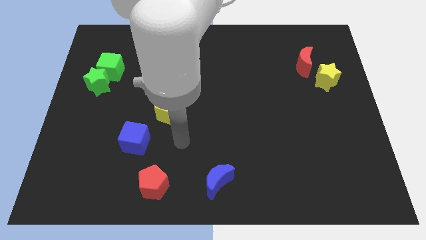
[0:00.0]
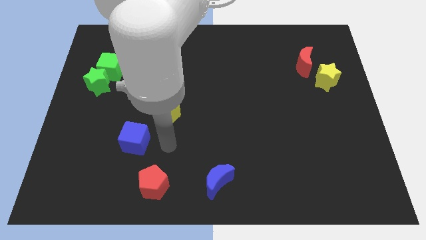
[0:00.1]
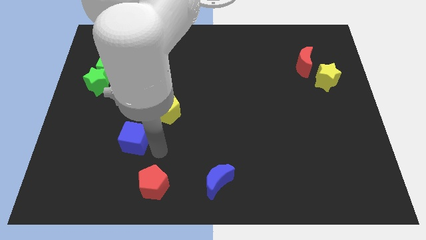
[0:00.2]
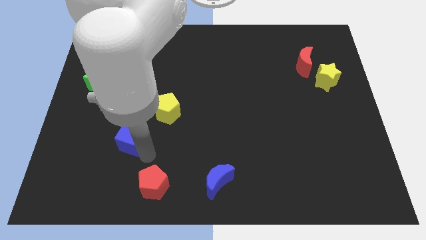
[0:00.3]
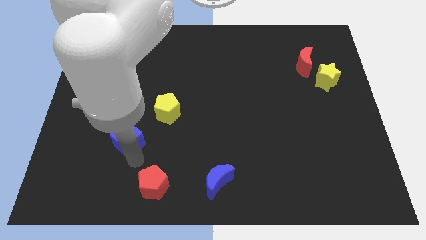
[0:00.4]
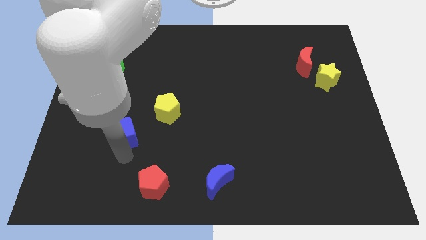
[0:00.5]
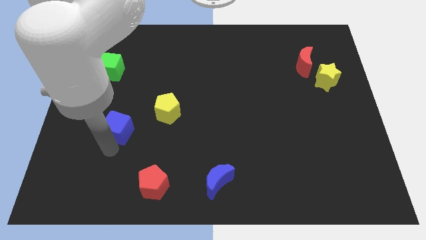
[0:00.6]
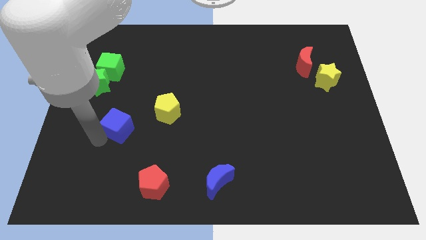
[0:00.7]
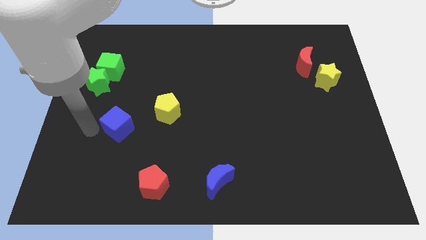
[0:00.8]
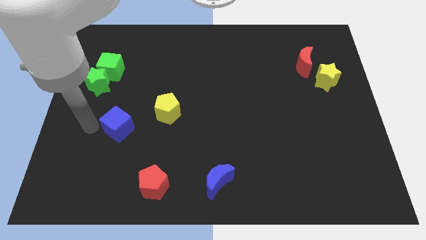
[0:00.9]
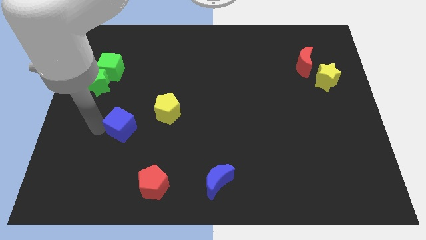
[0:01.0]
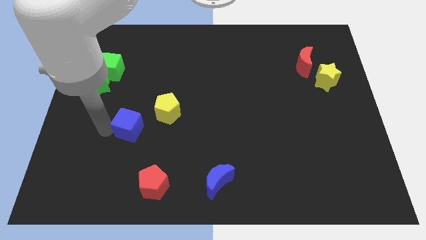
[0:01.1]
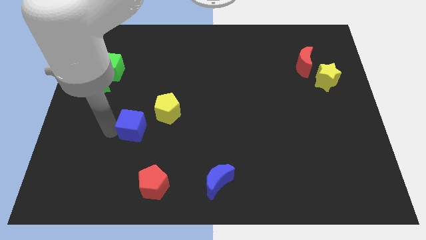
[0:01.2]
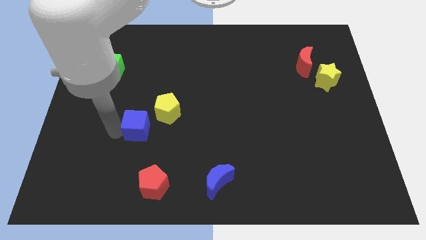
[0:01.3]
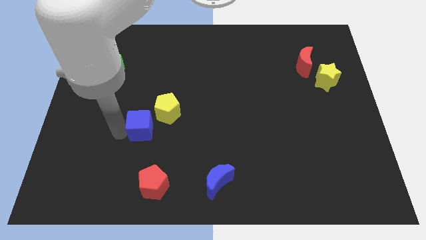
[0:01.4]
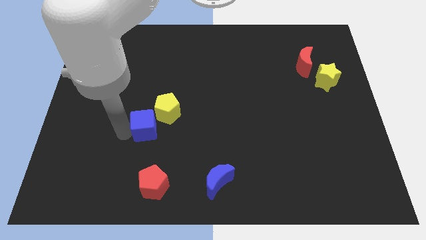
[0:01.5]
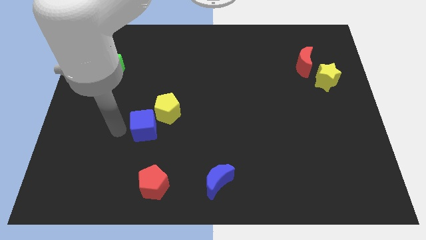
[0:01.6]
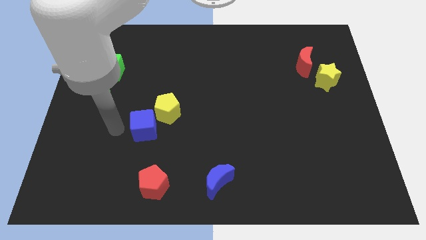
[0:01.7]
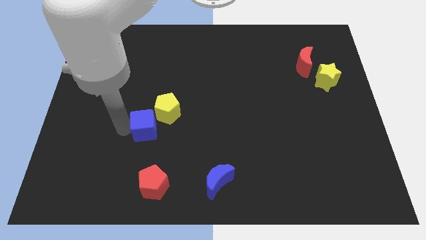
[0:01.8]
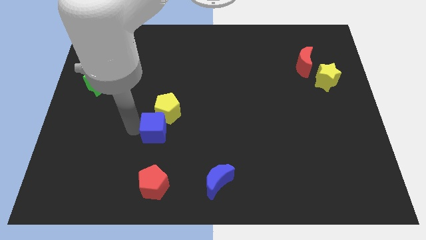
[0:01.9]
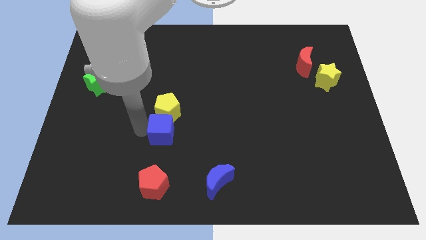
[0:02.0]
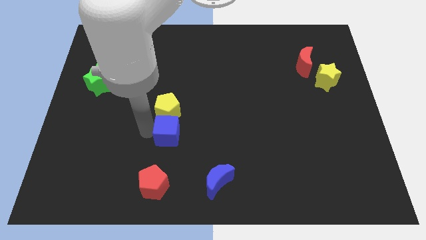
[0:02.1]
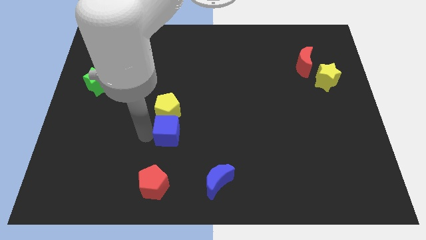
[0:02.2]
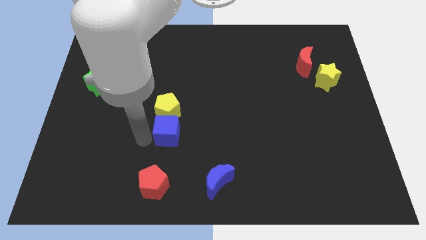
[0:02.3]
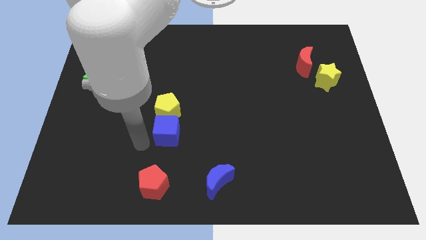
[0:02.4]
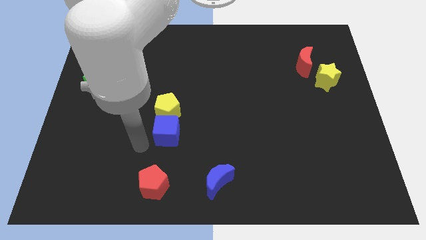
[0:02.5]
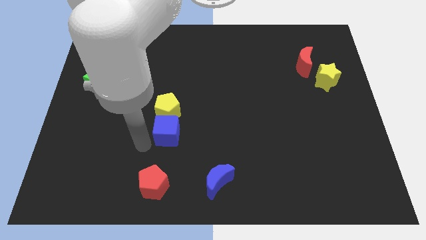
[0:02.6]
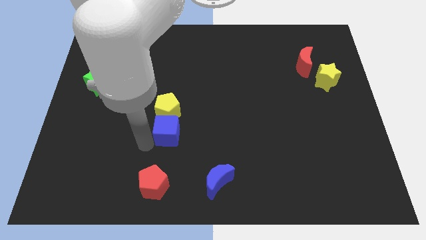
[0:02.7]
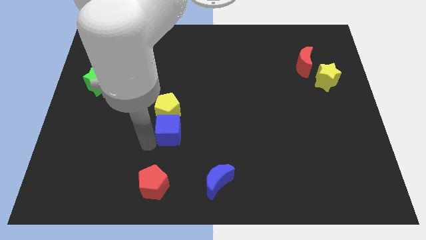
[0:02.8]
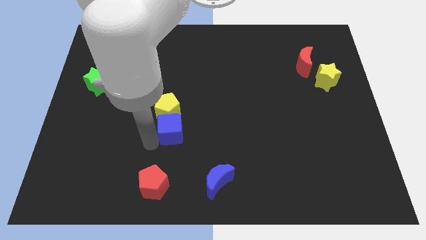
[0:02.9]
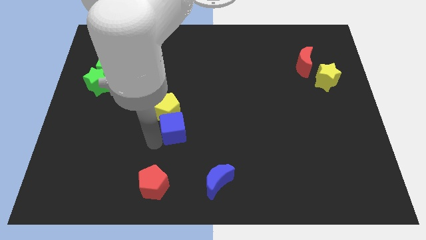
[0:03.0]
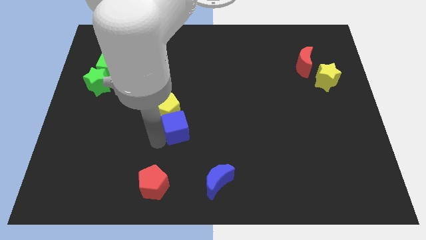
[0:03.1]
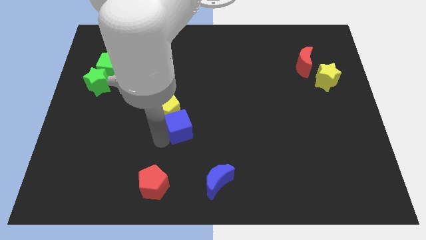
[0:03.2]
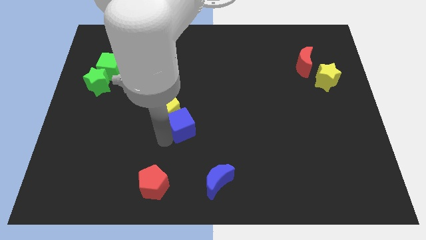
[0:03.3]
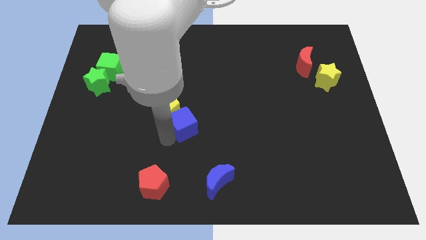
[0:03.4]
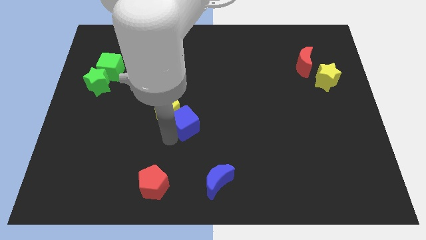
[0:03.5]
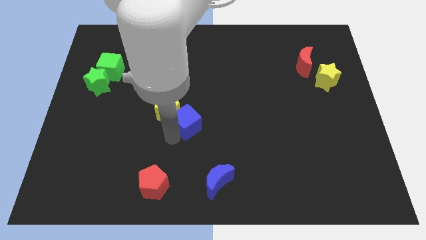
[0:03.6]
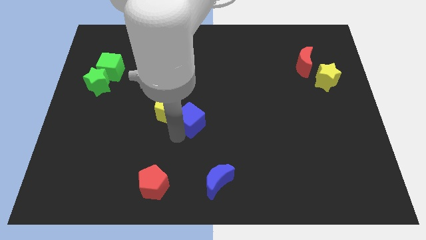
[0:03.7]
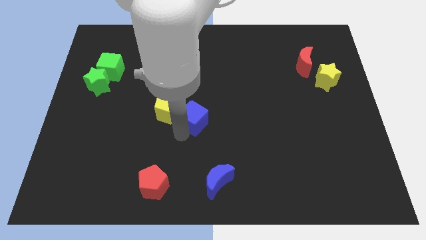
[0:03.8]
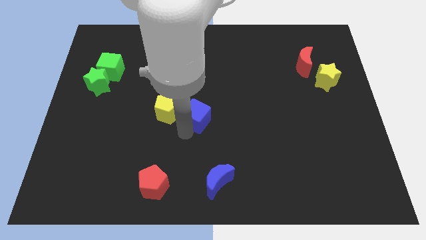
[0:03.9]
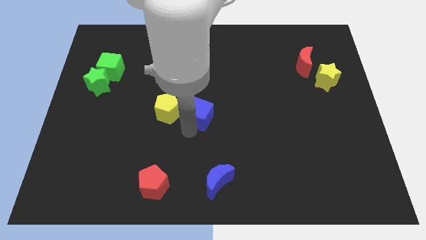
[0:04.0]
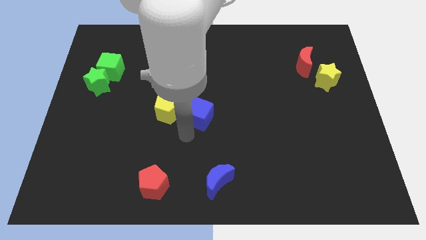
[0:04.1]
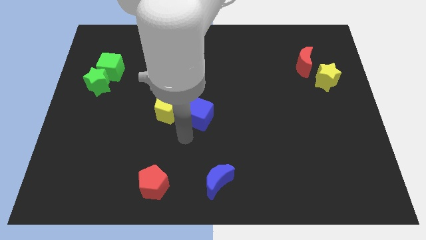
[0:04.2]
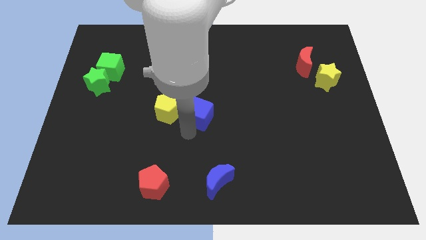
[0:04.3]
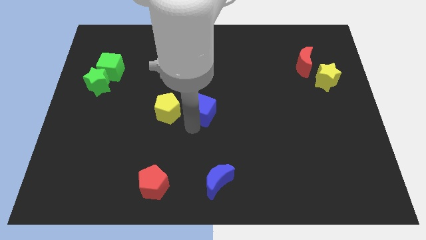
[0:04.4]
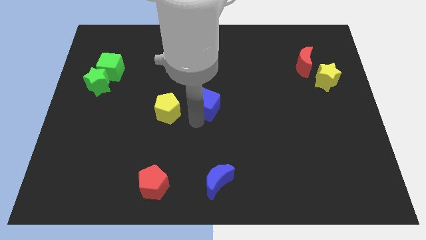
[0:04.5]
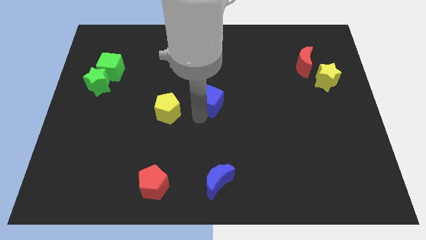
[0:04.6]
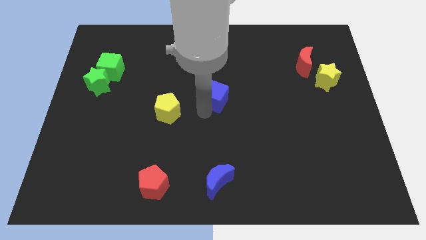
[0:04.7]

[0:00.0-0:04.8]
push the blue cube up and right diagonally

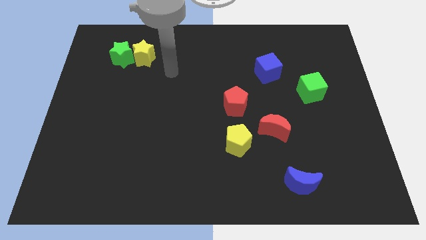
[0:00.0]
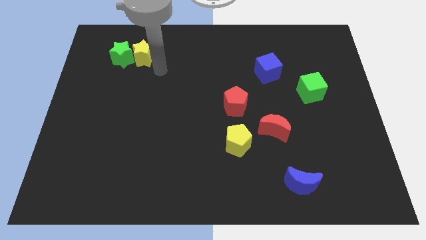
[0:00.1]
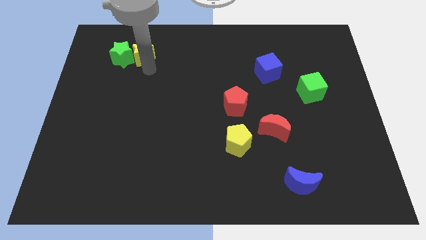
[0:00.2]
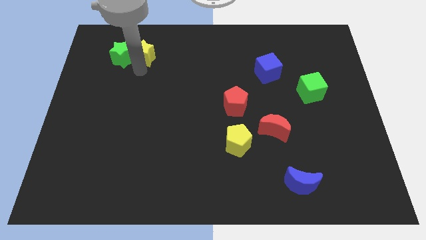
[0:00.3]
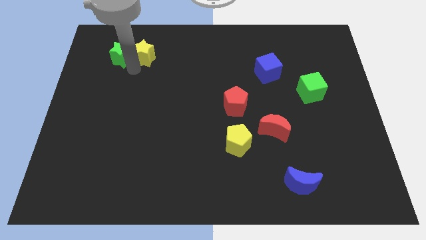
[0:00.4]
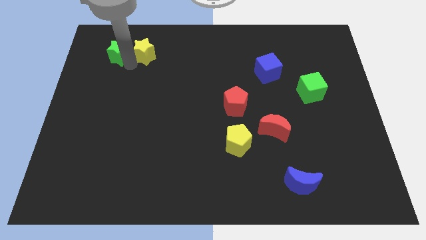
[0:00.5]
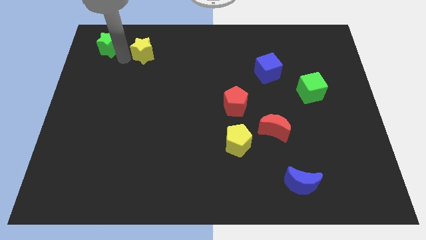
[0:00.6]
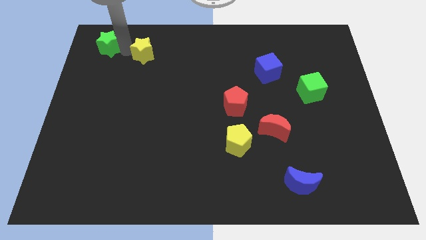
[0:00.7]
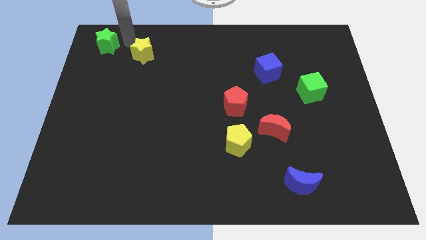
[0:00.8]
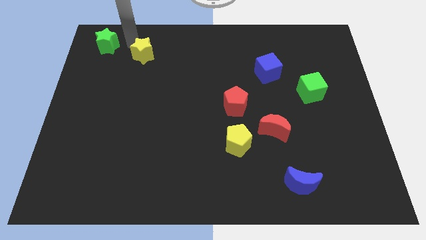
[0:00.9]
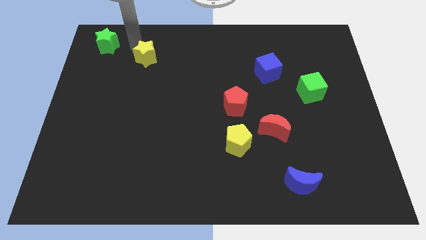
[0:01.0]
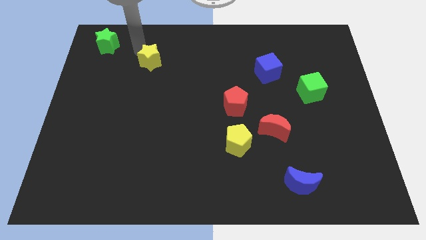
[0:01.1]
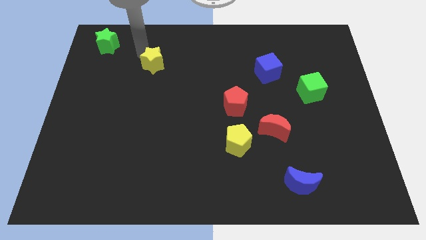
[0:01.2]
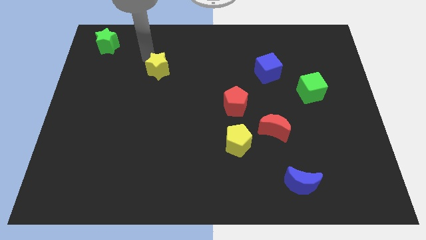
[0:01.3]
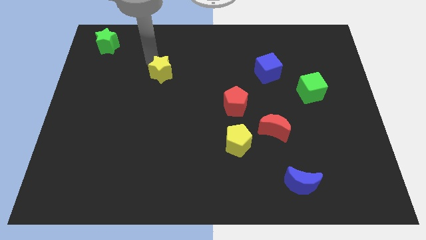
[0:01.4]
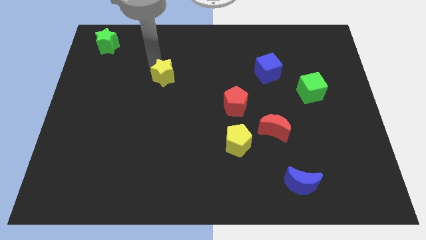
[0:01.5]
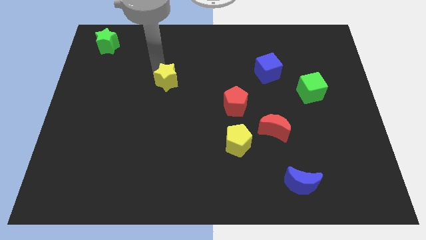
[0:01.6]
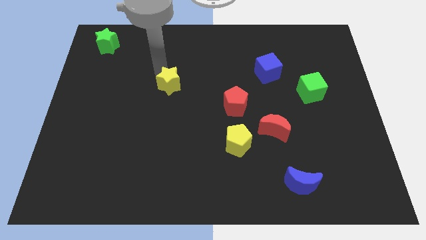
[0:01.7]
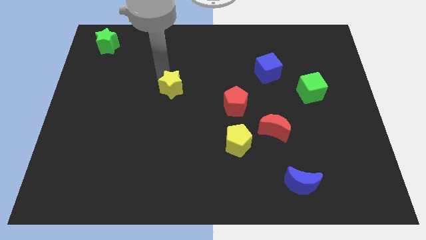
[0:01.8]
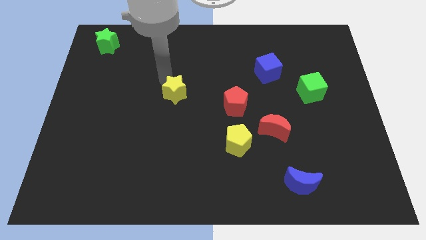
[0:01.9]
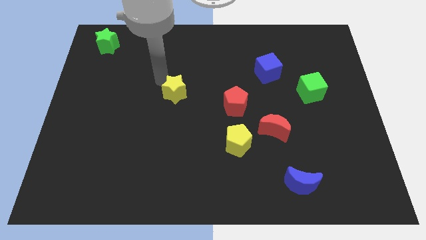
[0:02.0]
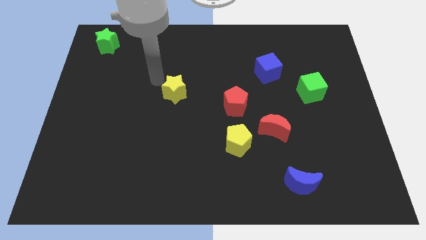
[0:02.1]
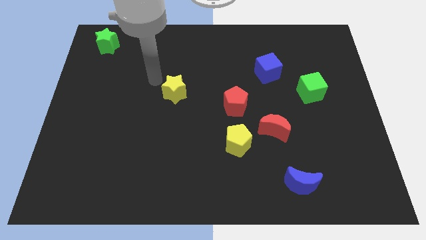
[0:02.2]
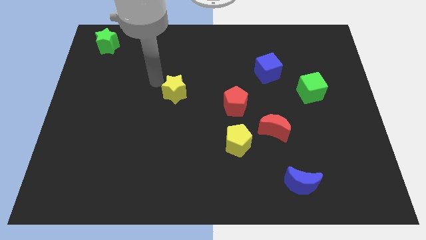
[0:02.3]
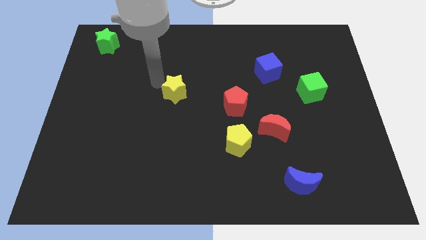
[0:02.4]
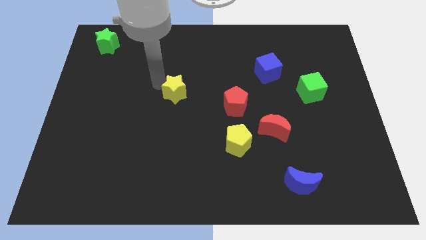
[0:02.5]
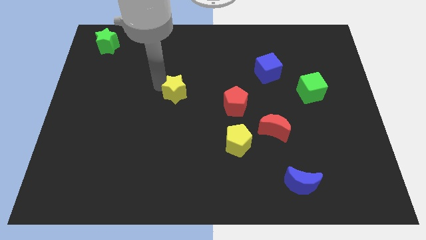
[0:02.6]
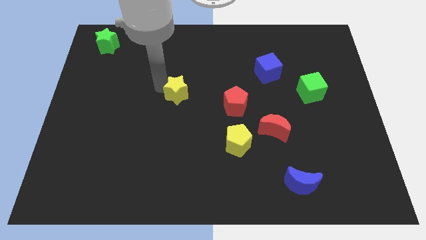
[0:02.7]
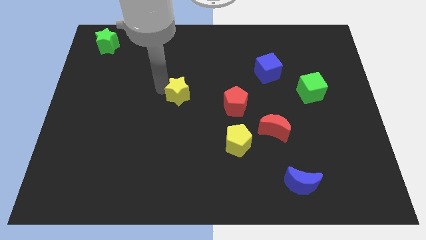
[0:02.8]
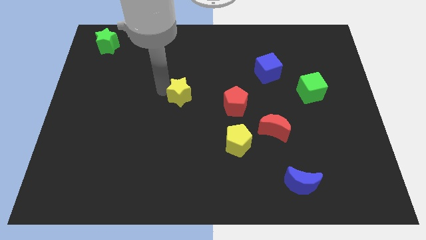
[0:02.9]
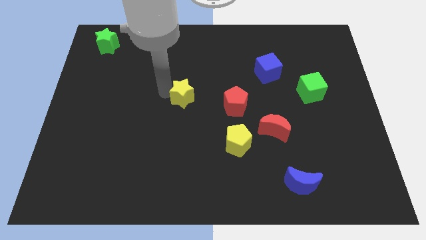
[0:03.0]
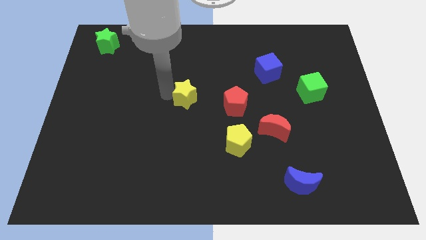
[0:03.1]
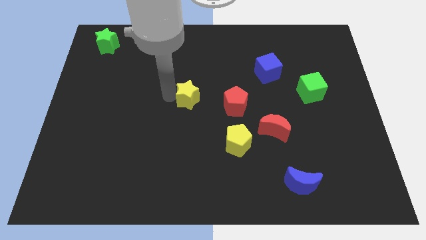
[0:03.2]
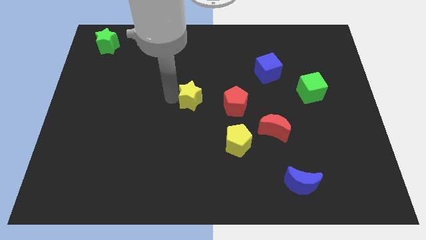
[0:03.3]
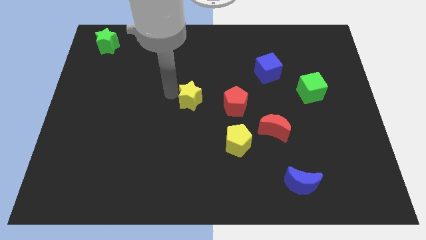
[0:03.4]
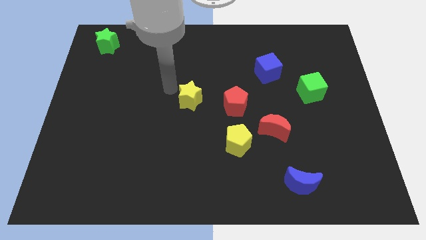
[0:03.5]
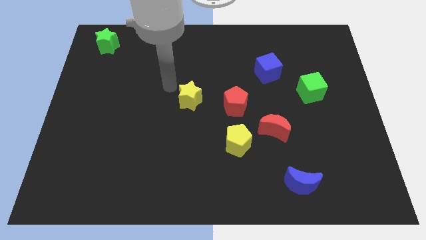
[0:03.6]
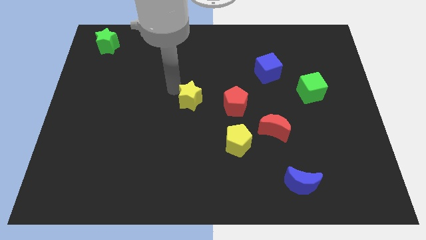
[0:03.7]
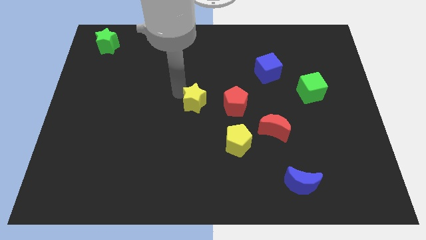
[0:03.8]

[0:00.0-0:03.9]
slide the yellow star diagonally downwards and to the right
